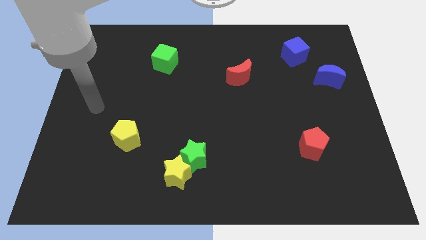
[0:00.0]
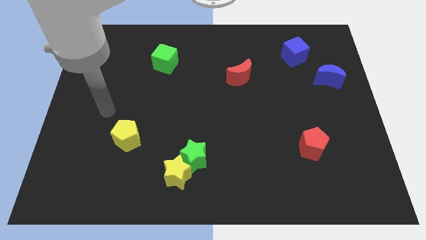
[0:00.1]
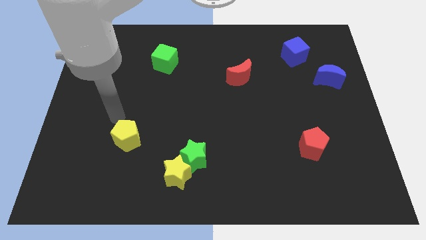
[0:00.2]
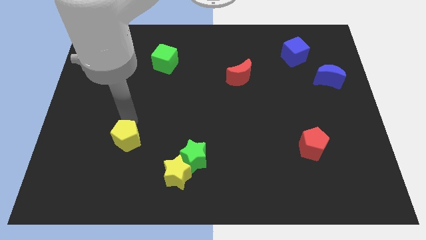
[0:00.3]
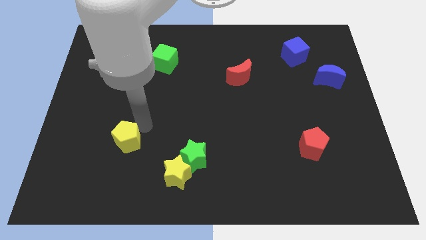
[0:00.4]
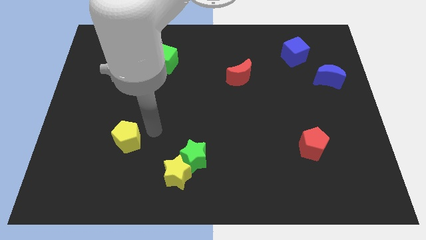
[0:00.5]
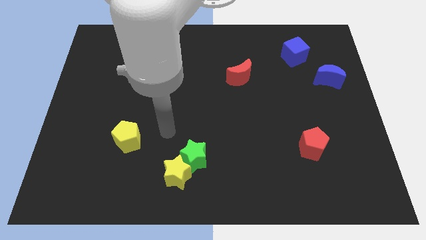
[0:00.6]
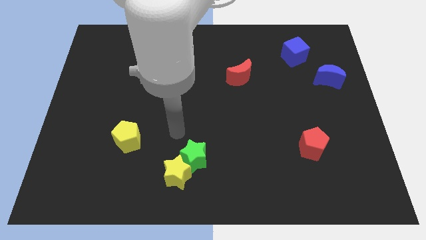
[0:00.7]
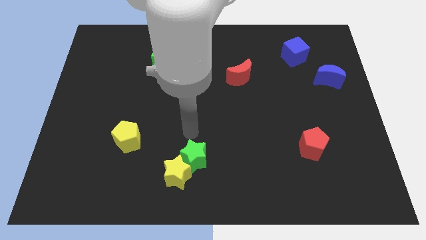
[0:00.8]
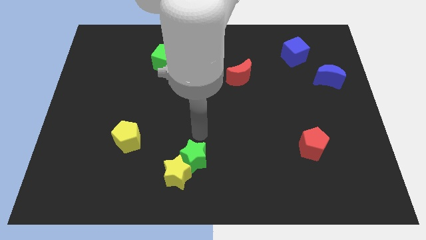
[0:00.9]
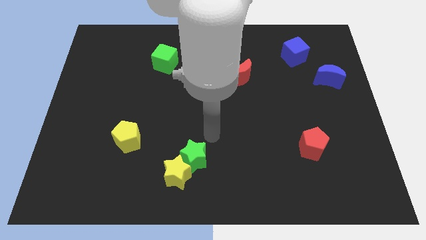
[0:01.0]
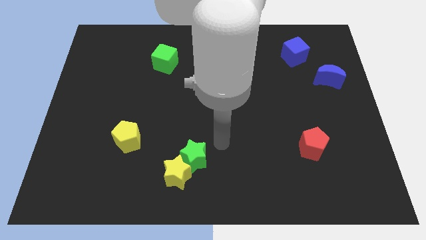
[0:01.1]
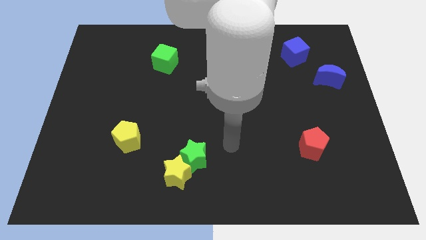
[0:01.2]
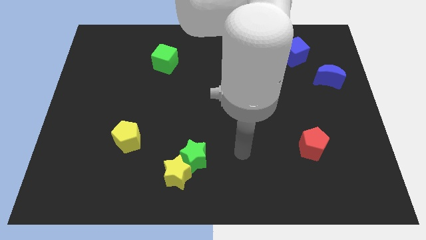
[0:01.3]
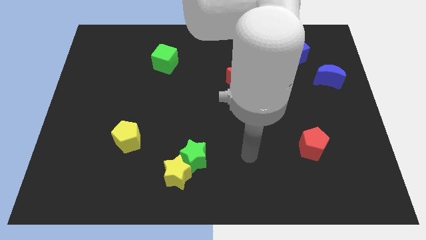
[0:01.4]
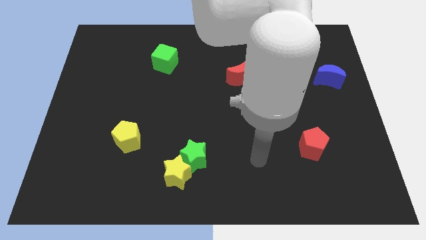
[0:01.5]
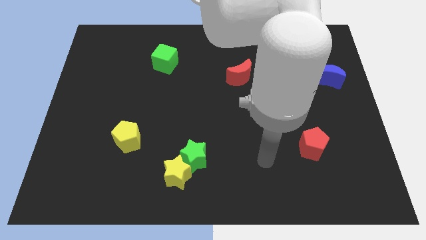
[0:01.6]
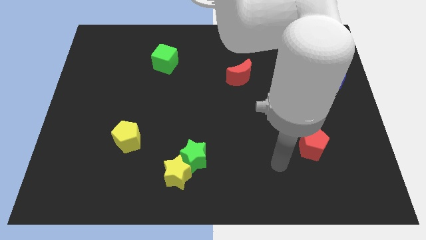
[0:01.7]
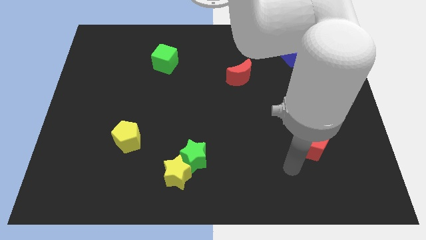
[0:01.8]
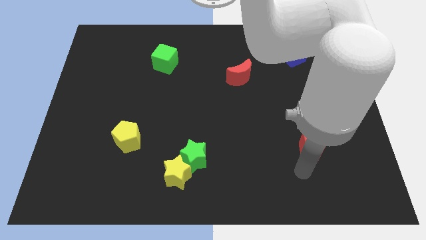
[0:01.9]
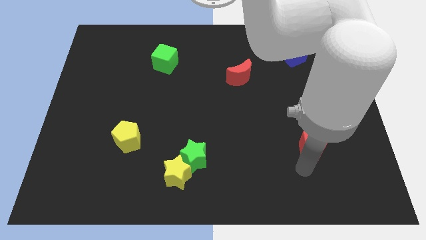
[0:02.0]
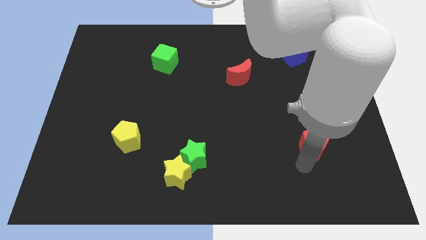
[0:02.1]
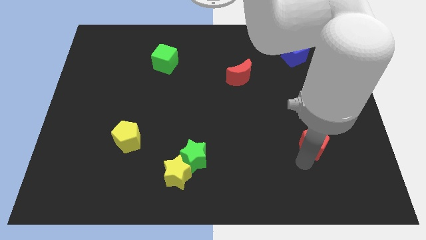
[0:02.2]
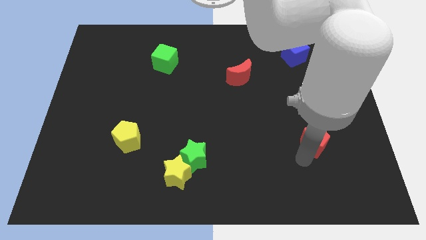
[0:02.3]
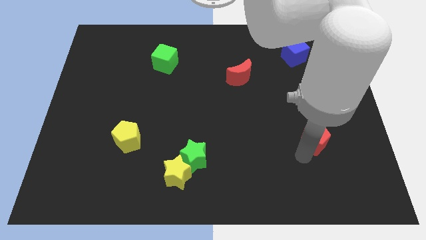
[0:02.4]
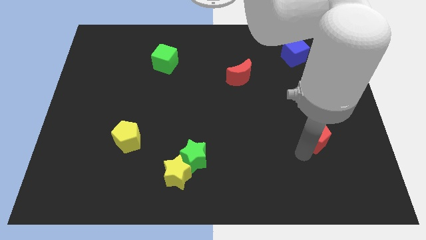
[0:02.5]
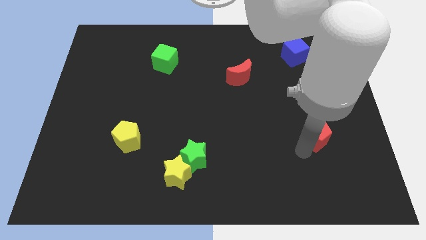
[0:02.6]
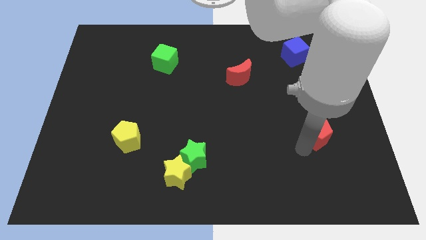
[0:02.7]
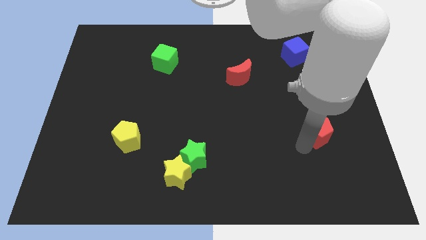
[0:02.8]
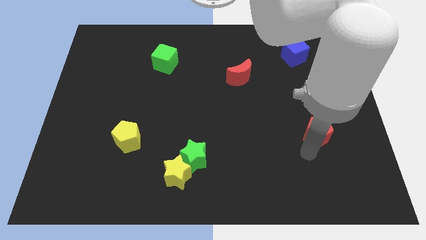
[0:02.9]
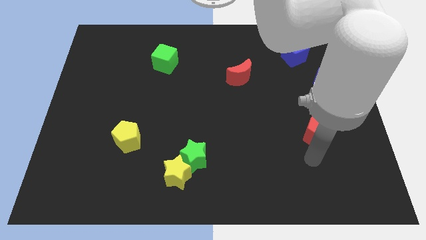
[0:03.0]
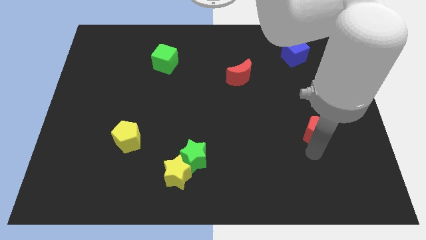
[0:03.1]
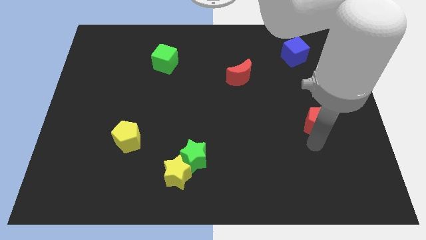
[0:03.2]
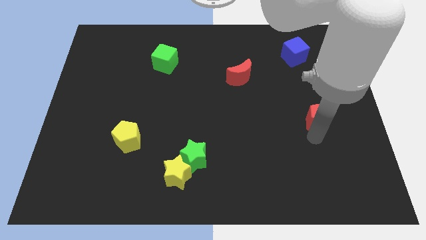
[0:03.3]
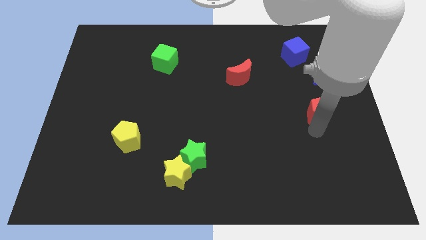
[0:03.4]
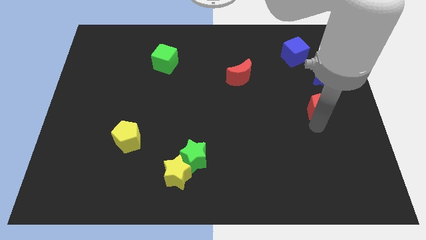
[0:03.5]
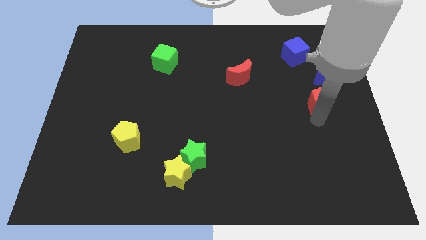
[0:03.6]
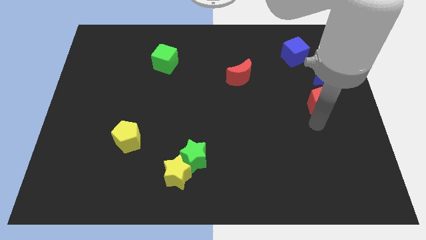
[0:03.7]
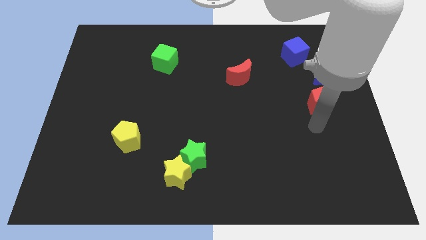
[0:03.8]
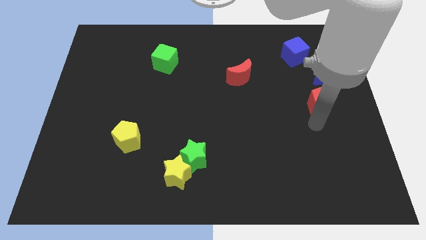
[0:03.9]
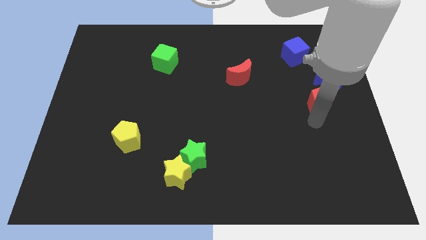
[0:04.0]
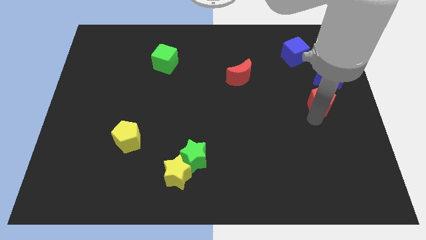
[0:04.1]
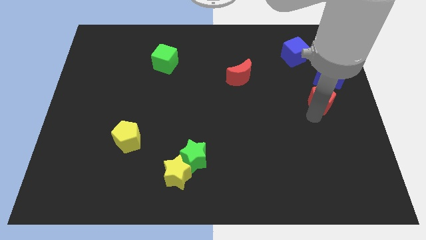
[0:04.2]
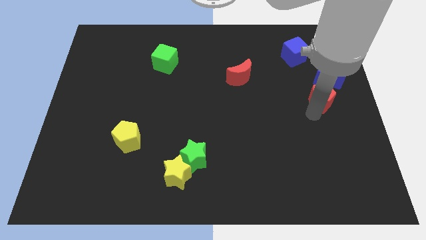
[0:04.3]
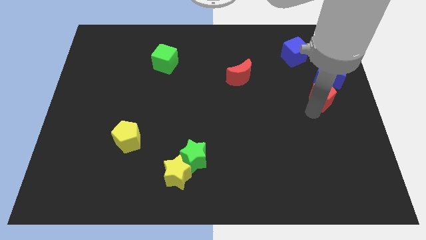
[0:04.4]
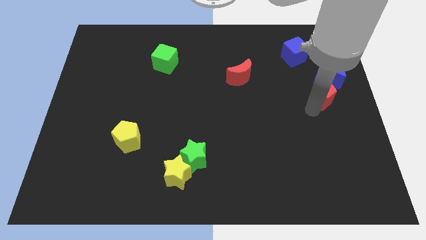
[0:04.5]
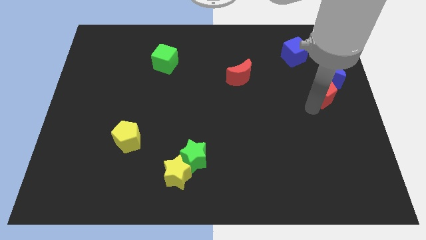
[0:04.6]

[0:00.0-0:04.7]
move the red pentagon to the blue moon

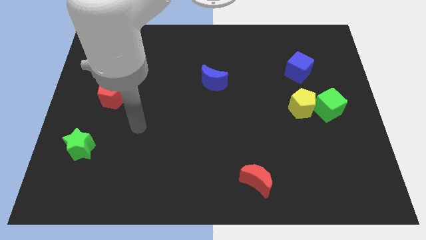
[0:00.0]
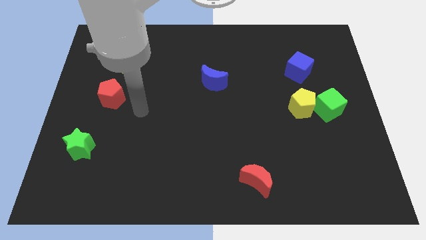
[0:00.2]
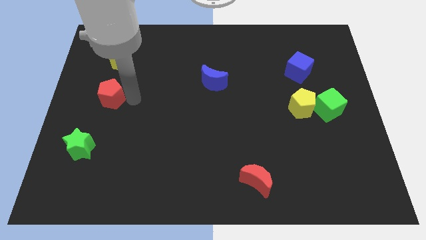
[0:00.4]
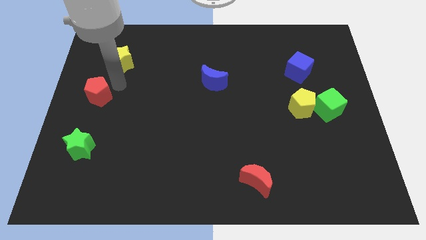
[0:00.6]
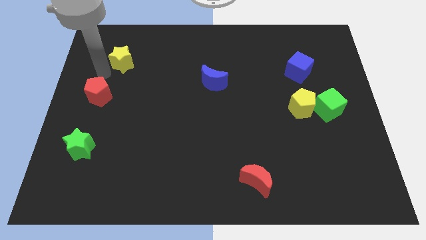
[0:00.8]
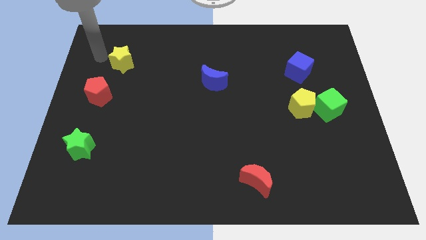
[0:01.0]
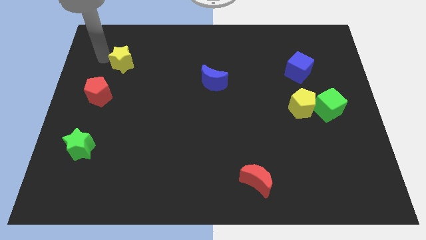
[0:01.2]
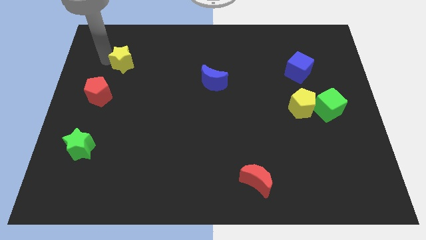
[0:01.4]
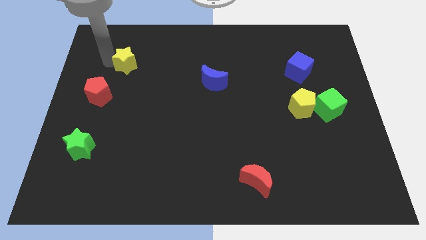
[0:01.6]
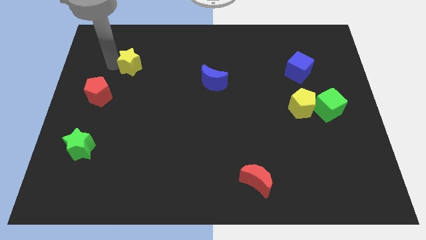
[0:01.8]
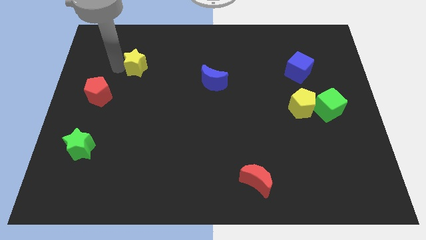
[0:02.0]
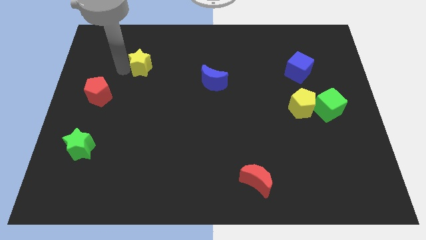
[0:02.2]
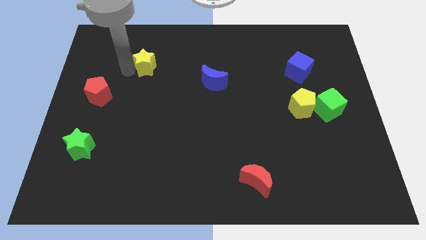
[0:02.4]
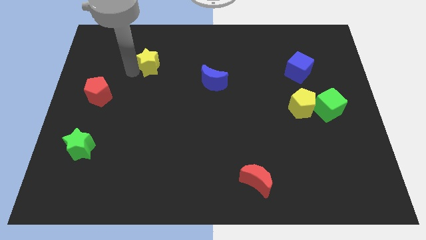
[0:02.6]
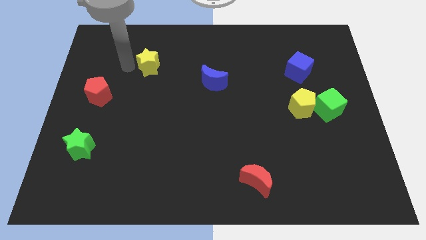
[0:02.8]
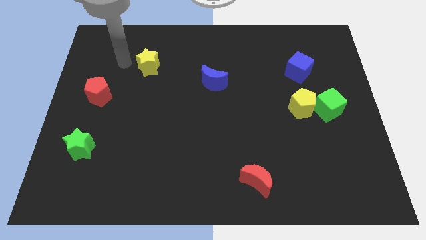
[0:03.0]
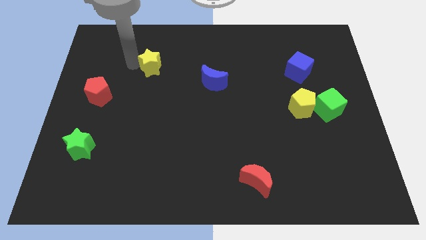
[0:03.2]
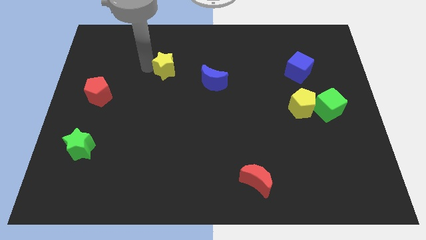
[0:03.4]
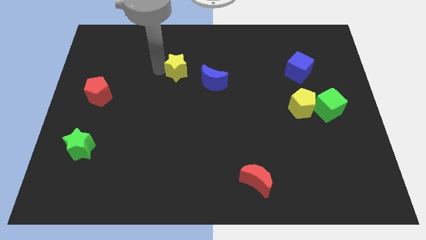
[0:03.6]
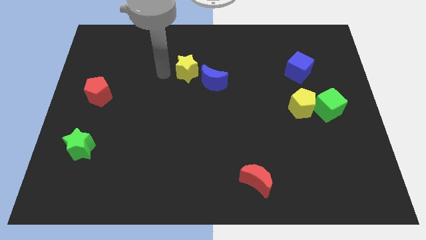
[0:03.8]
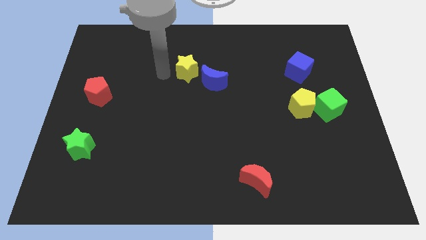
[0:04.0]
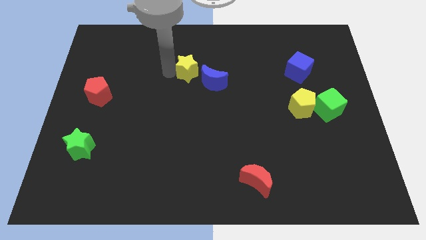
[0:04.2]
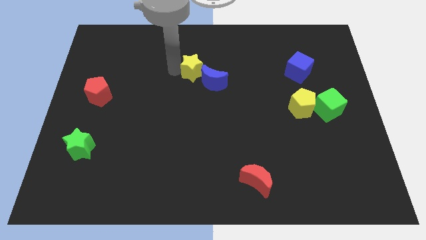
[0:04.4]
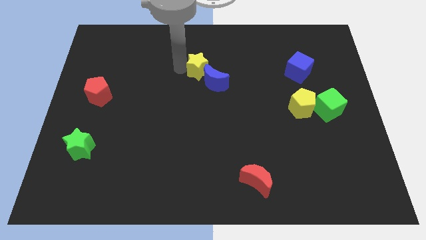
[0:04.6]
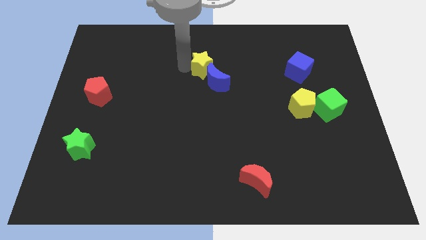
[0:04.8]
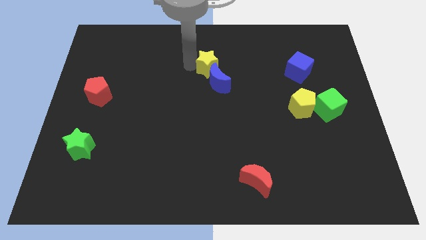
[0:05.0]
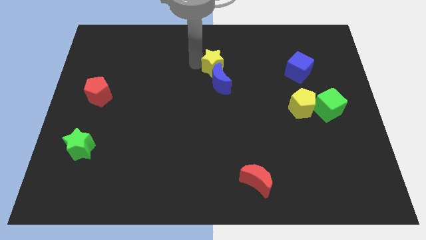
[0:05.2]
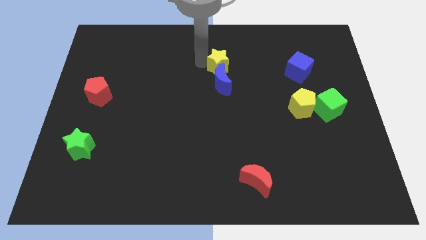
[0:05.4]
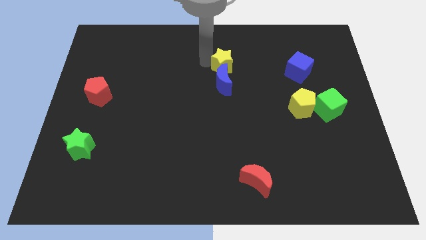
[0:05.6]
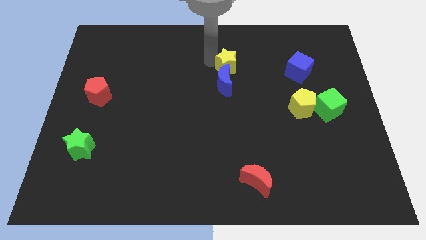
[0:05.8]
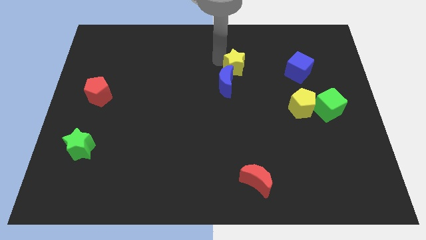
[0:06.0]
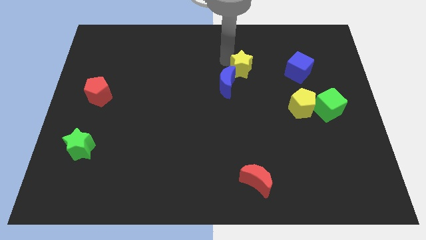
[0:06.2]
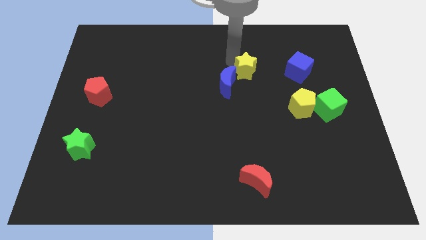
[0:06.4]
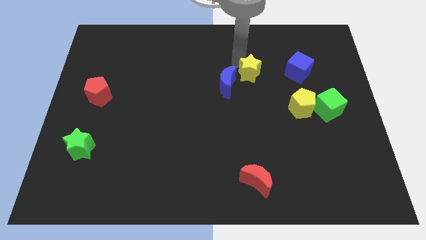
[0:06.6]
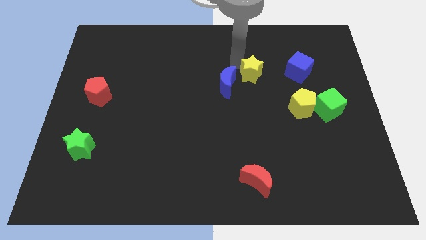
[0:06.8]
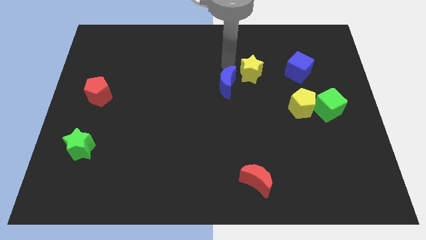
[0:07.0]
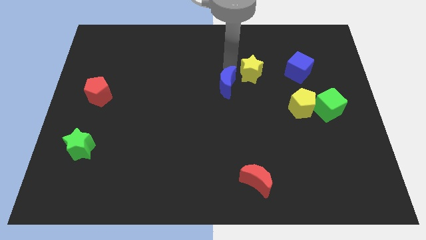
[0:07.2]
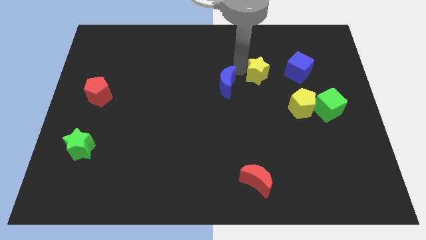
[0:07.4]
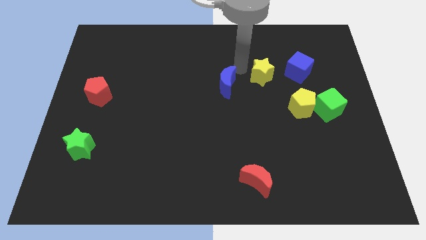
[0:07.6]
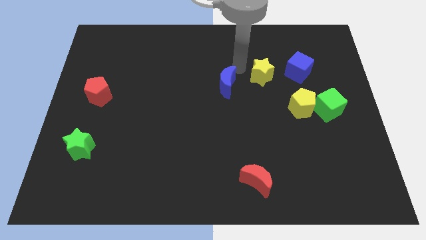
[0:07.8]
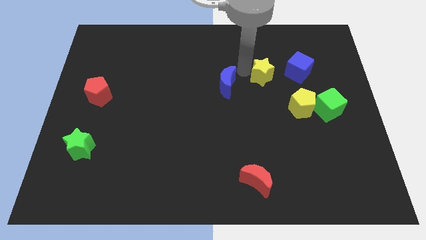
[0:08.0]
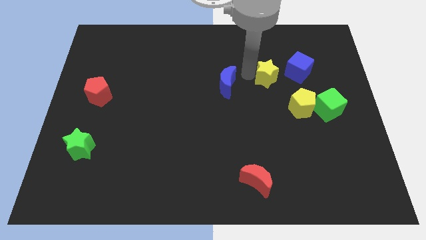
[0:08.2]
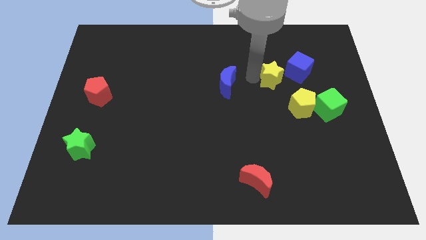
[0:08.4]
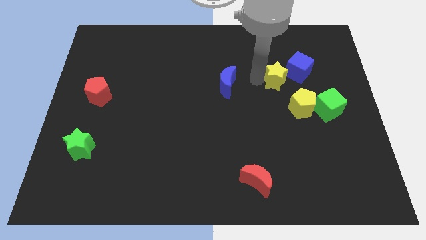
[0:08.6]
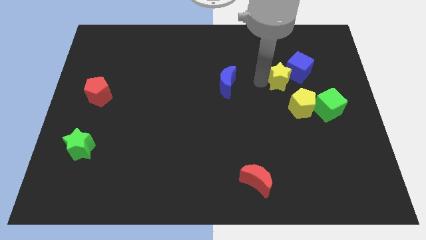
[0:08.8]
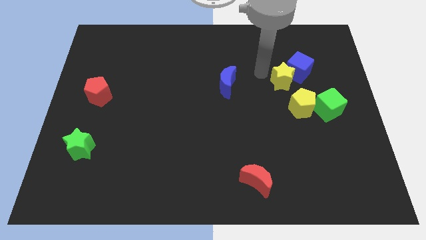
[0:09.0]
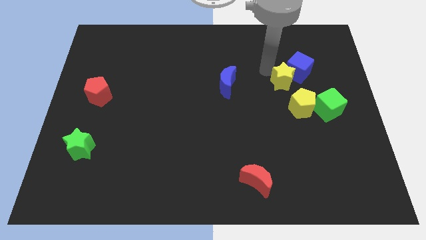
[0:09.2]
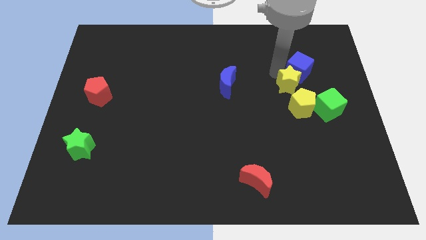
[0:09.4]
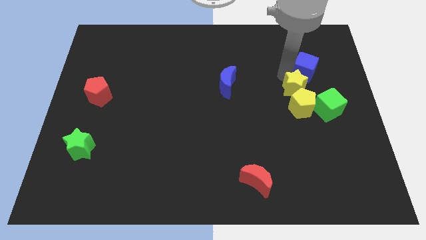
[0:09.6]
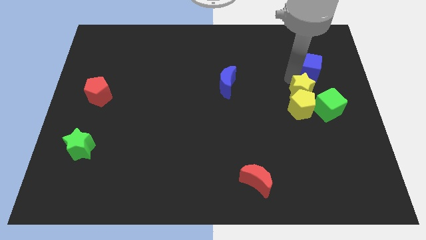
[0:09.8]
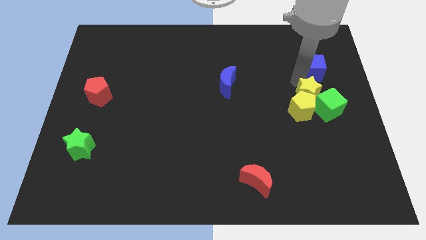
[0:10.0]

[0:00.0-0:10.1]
move the yellow star close to the green cube
